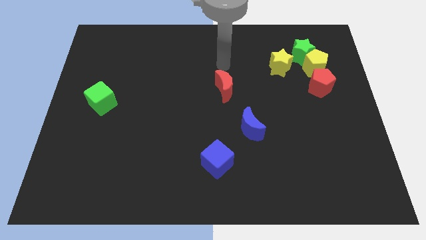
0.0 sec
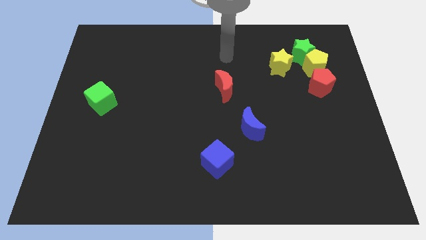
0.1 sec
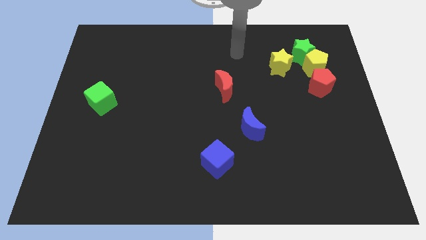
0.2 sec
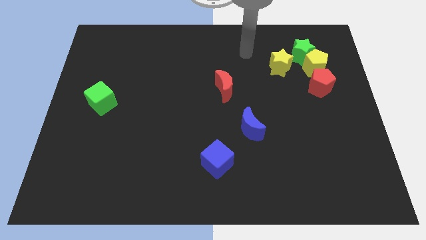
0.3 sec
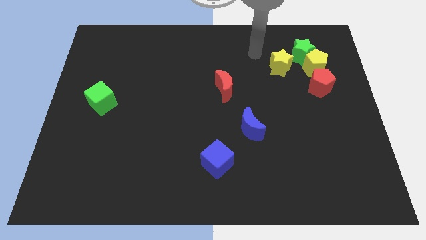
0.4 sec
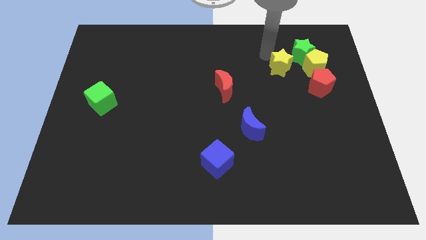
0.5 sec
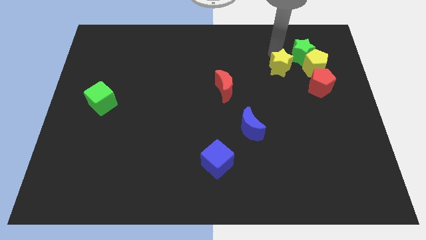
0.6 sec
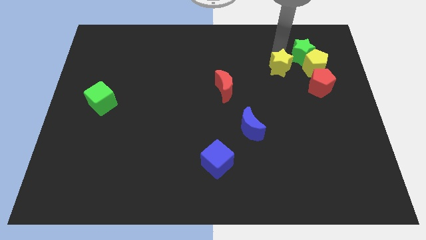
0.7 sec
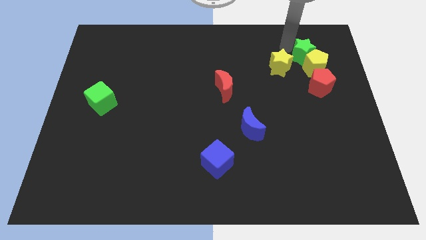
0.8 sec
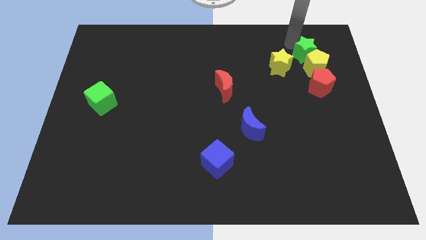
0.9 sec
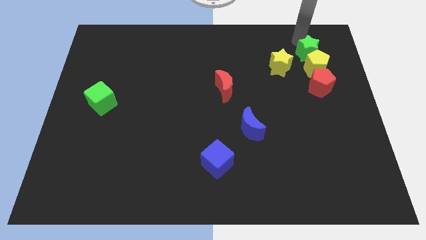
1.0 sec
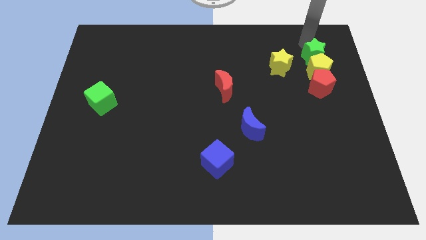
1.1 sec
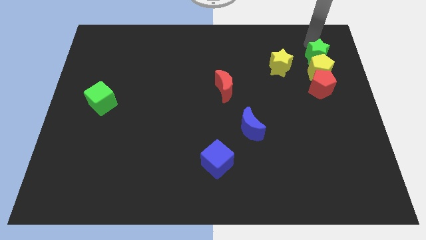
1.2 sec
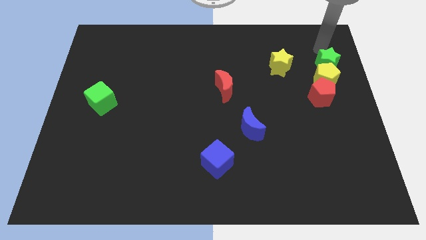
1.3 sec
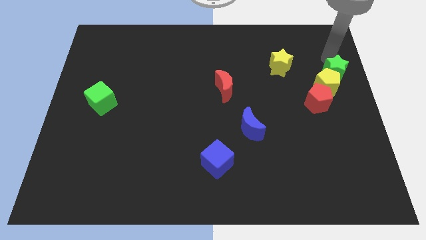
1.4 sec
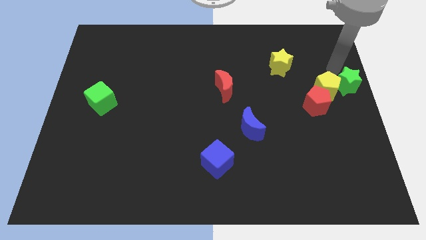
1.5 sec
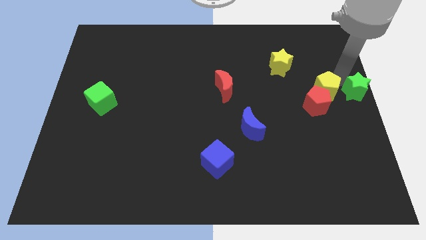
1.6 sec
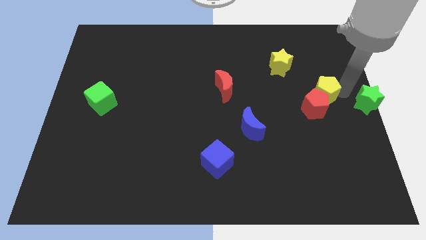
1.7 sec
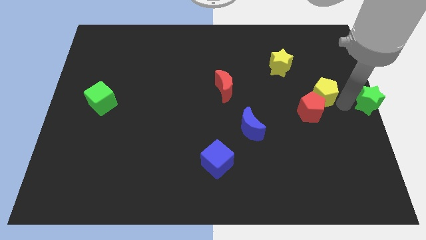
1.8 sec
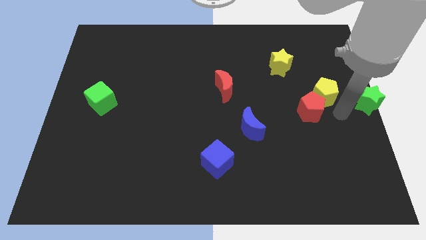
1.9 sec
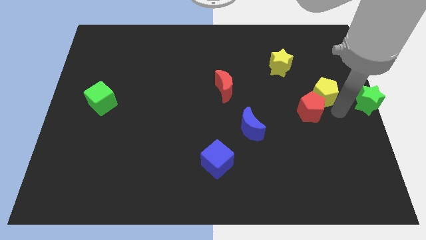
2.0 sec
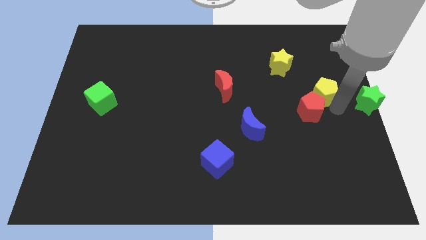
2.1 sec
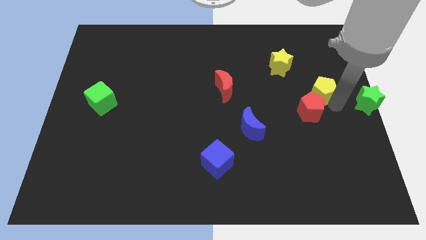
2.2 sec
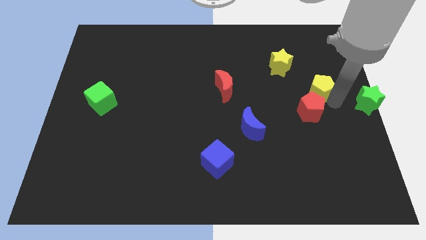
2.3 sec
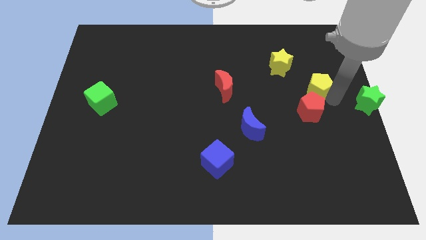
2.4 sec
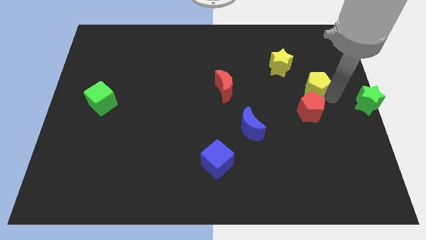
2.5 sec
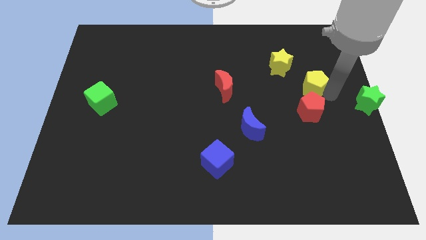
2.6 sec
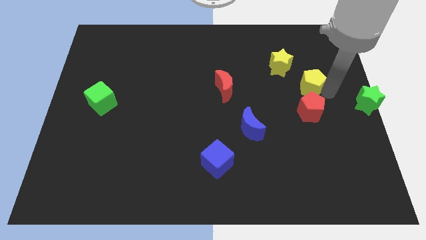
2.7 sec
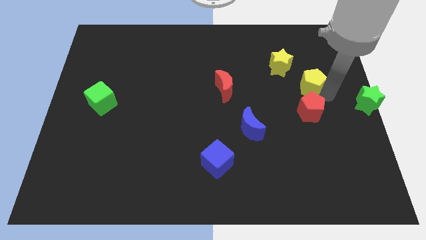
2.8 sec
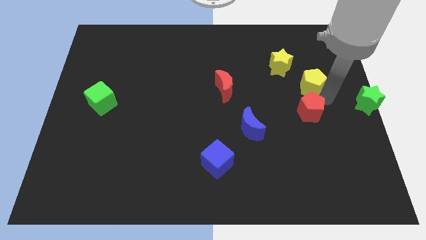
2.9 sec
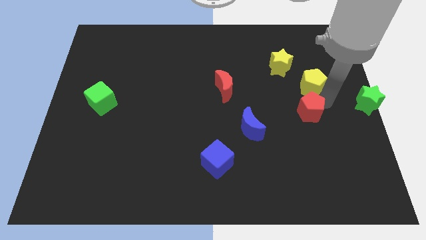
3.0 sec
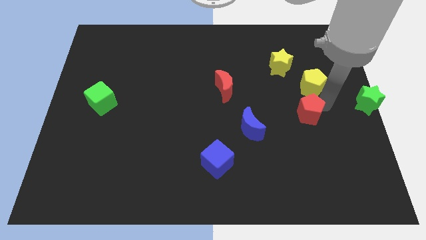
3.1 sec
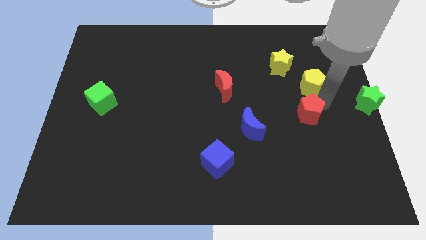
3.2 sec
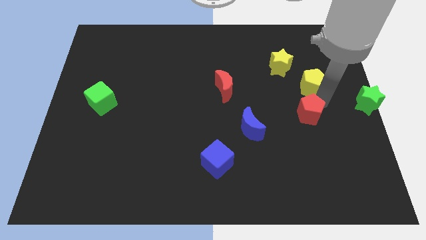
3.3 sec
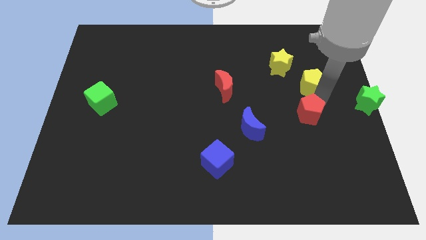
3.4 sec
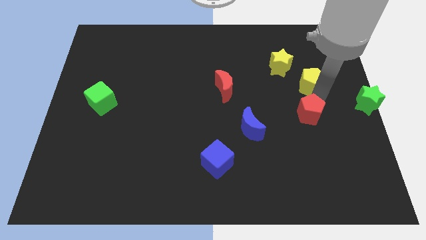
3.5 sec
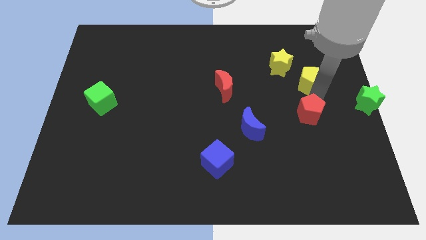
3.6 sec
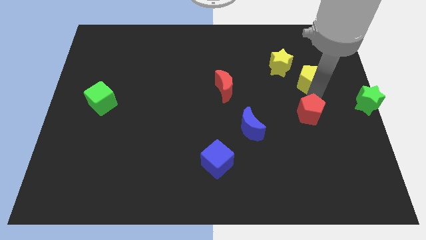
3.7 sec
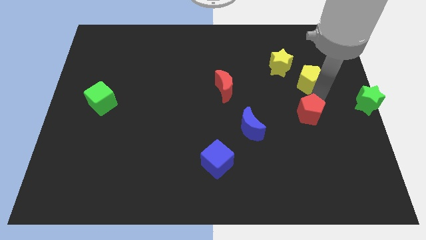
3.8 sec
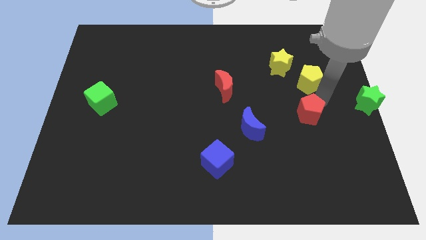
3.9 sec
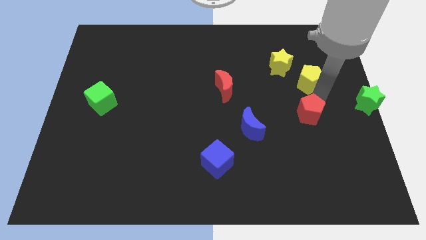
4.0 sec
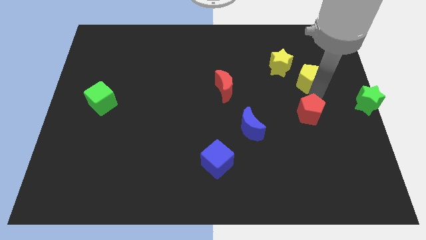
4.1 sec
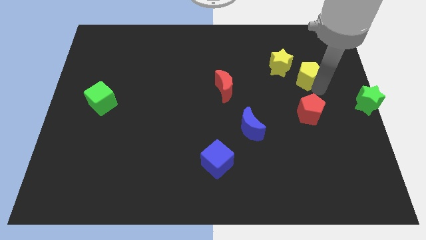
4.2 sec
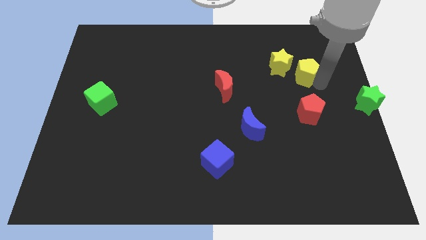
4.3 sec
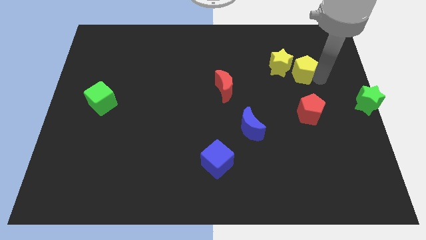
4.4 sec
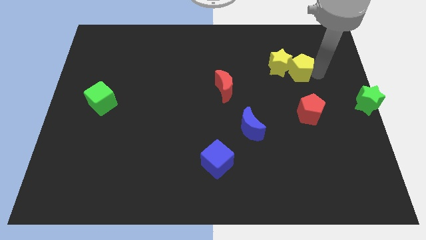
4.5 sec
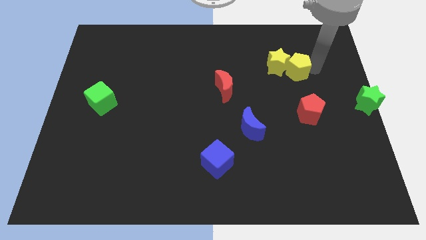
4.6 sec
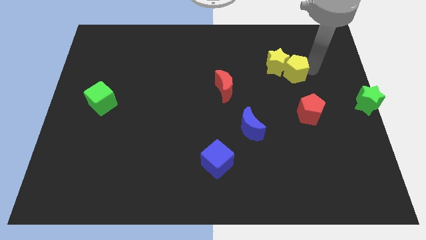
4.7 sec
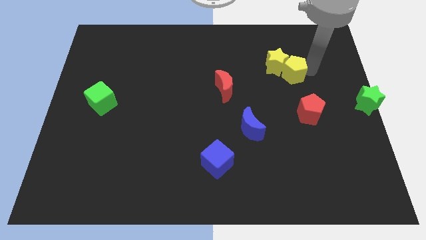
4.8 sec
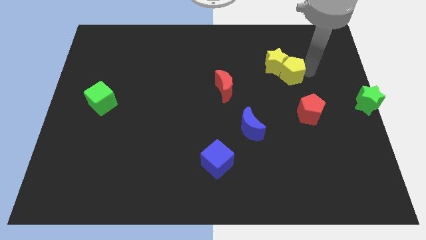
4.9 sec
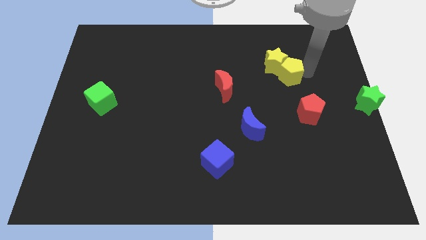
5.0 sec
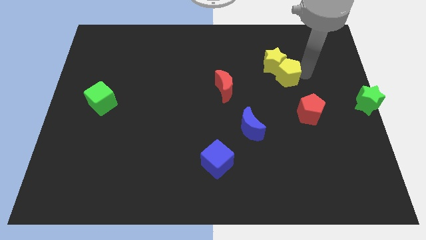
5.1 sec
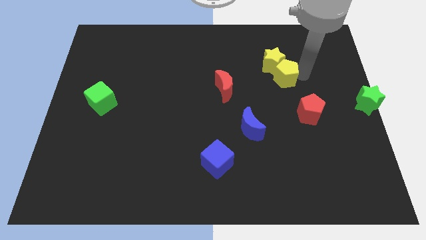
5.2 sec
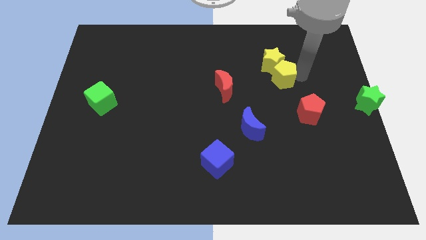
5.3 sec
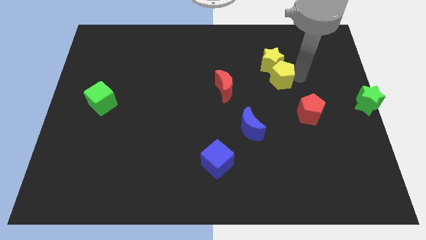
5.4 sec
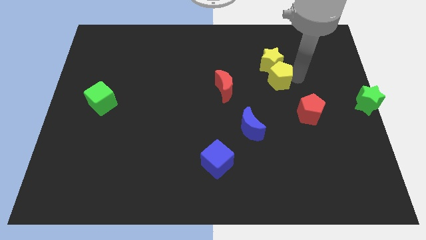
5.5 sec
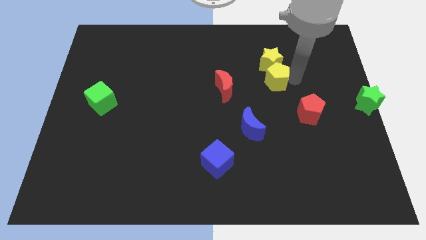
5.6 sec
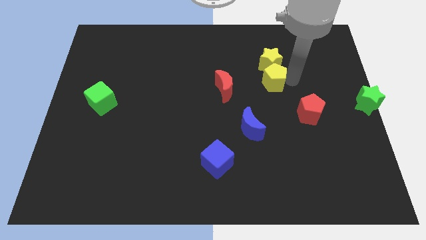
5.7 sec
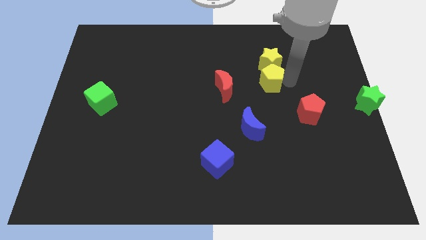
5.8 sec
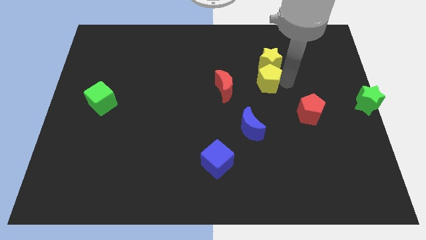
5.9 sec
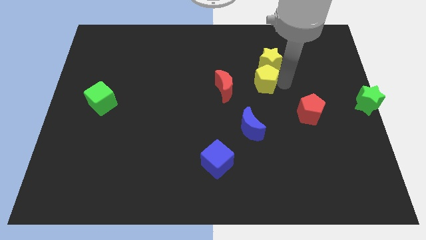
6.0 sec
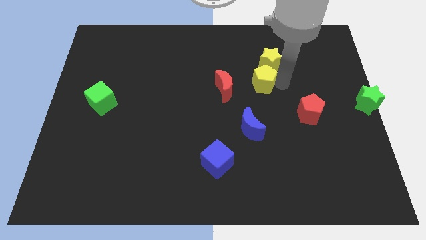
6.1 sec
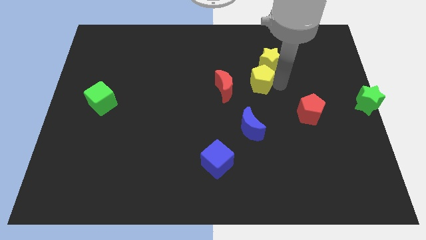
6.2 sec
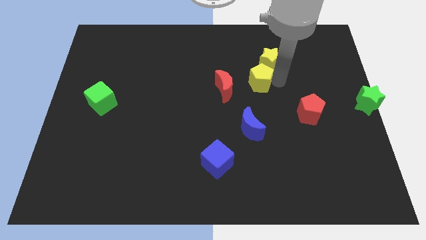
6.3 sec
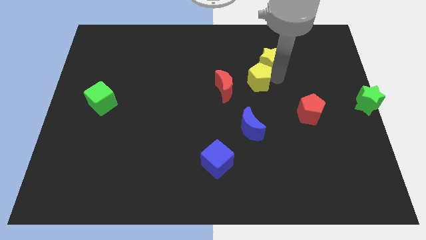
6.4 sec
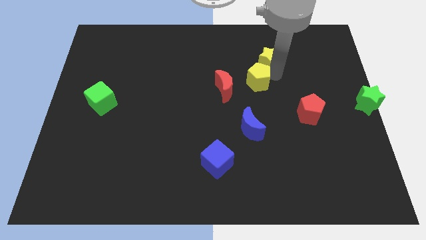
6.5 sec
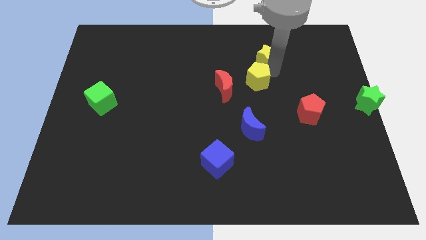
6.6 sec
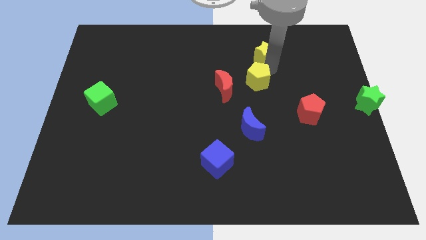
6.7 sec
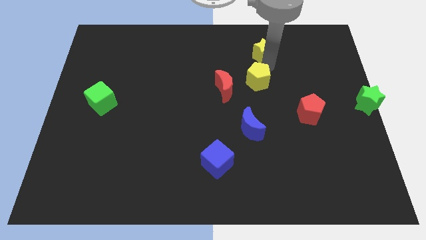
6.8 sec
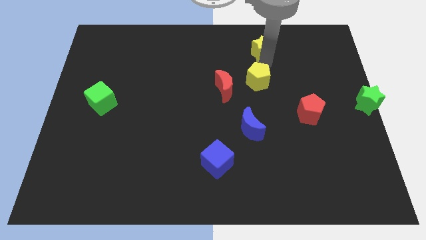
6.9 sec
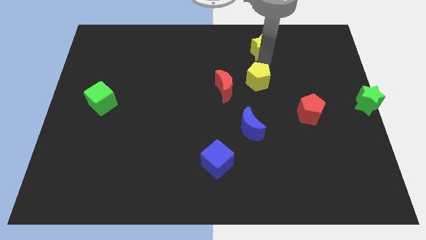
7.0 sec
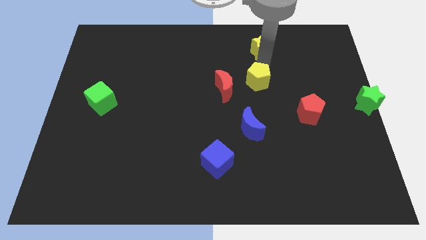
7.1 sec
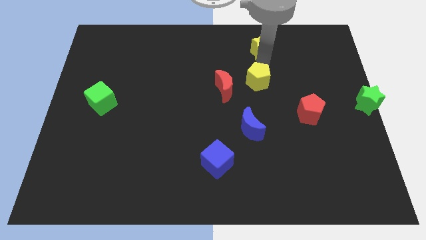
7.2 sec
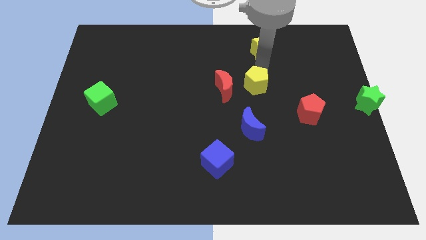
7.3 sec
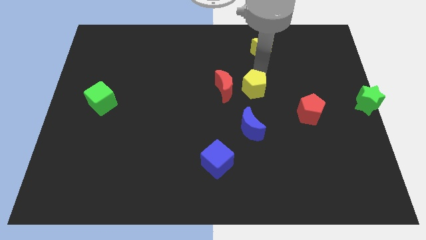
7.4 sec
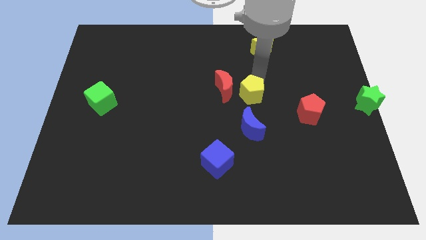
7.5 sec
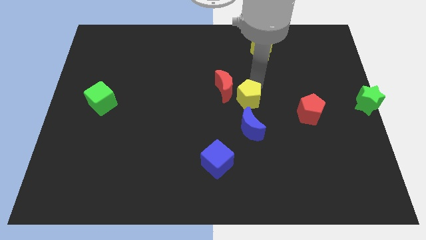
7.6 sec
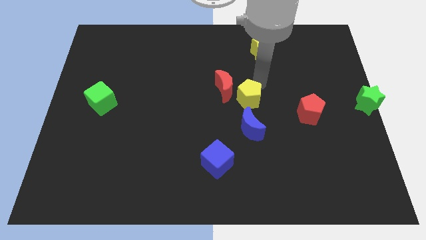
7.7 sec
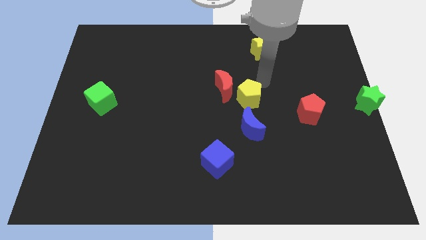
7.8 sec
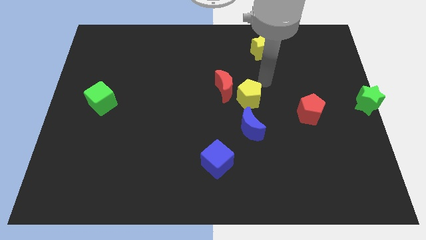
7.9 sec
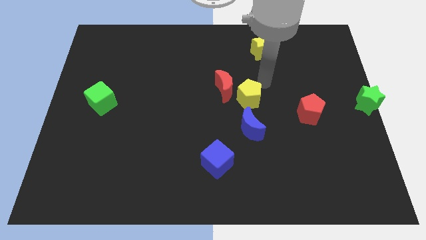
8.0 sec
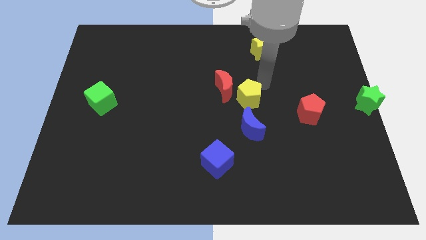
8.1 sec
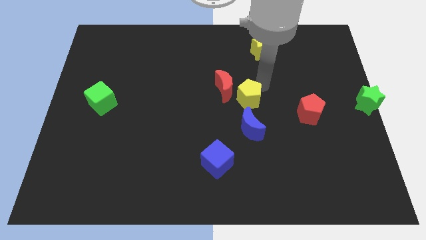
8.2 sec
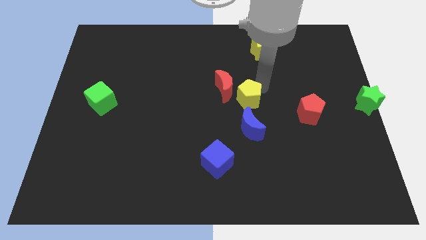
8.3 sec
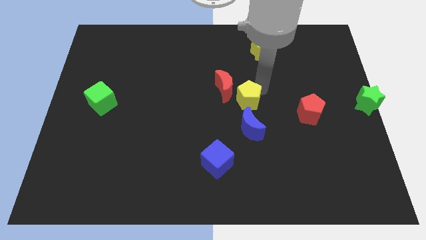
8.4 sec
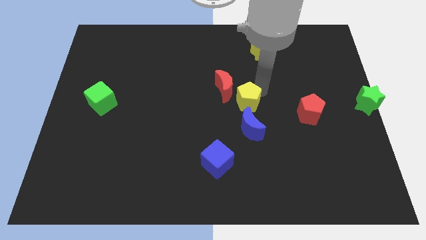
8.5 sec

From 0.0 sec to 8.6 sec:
move the yellow pentagon downwards and left
